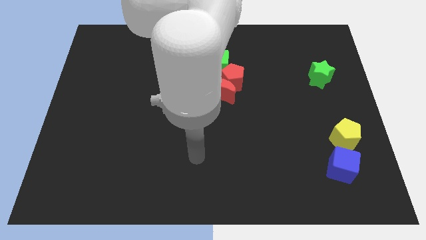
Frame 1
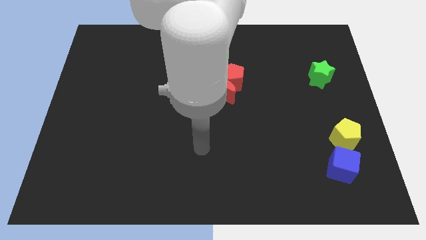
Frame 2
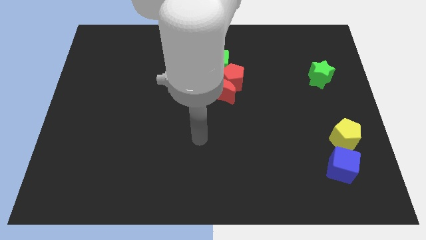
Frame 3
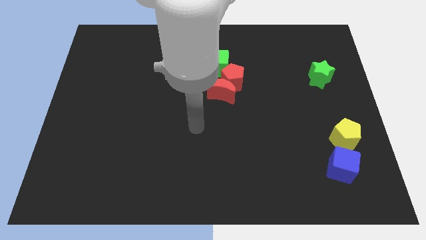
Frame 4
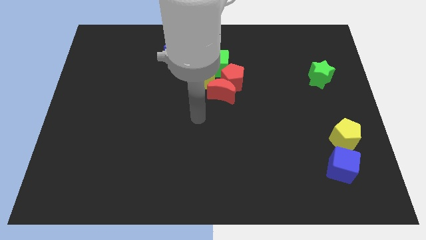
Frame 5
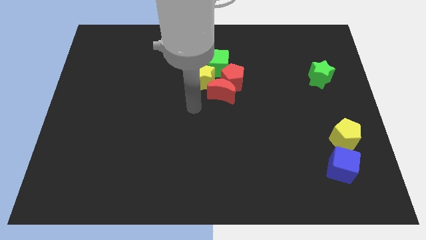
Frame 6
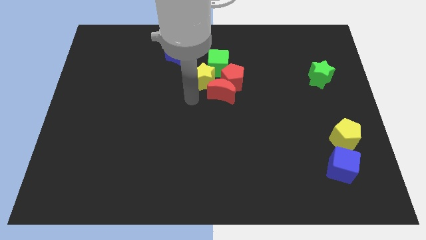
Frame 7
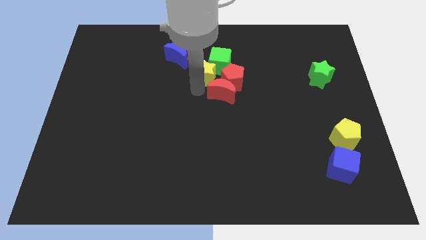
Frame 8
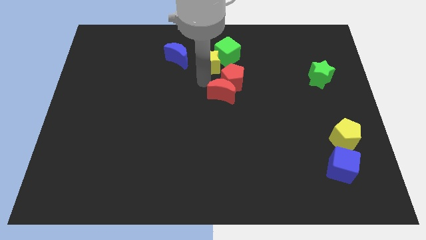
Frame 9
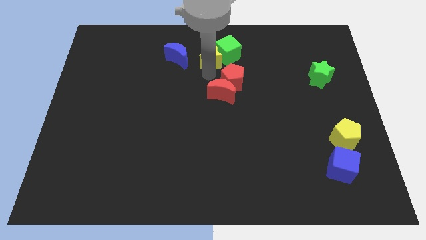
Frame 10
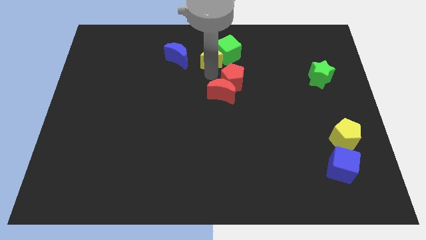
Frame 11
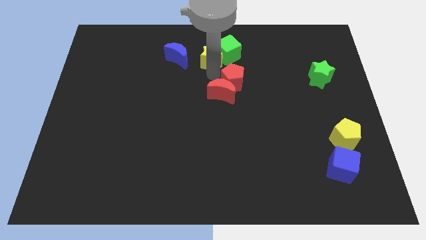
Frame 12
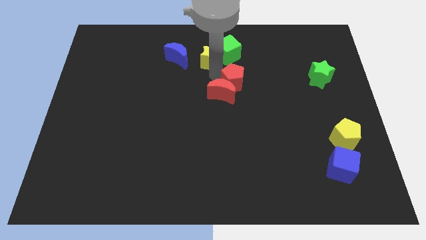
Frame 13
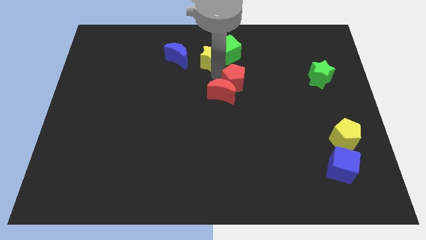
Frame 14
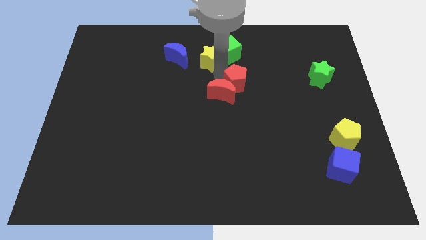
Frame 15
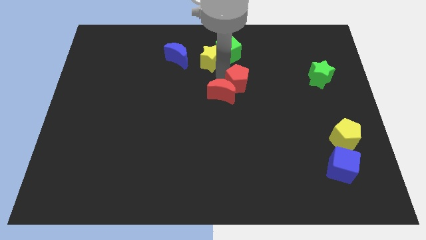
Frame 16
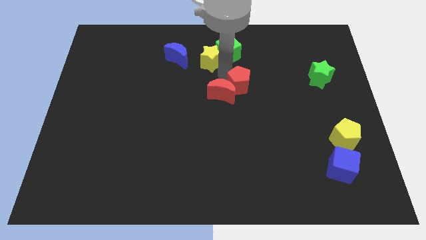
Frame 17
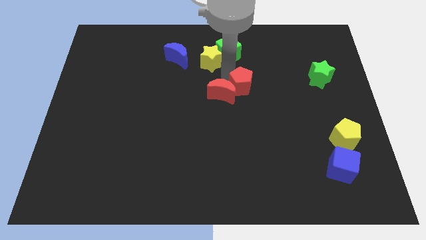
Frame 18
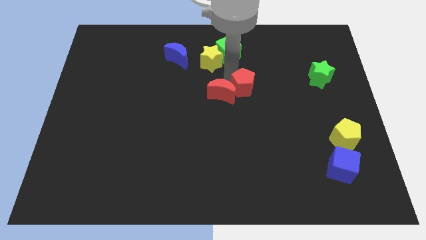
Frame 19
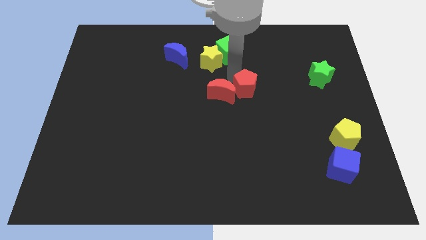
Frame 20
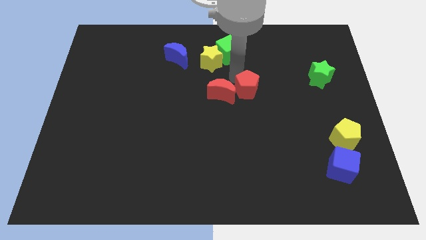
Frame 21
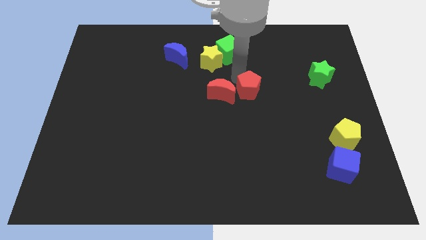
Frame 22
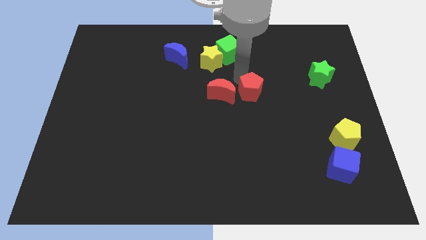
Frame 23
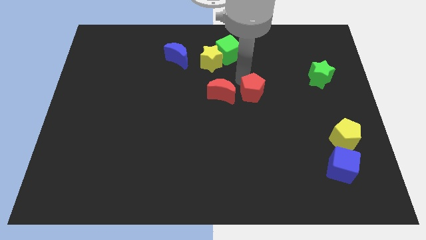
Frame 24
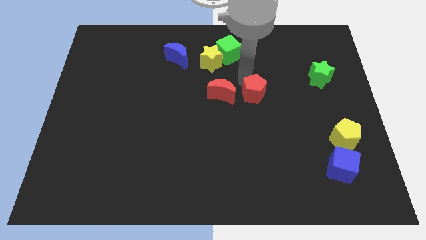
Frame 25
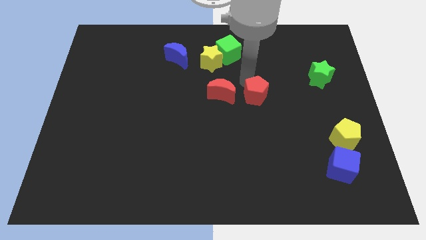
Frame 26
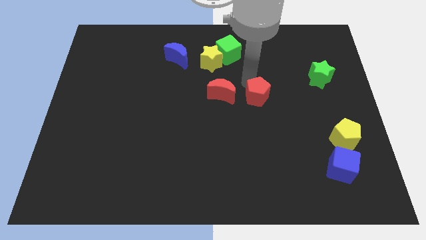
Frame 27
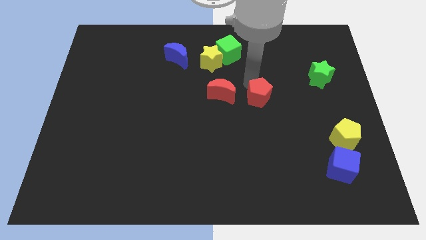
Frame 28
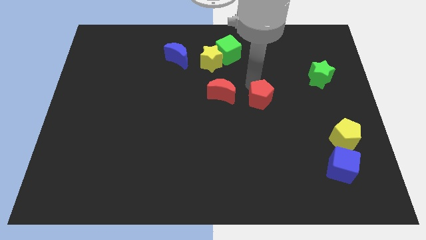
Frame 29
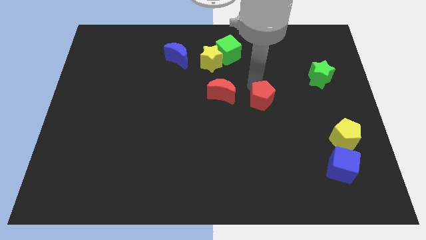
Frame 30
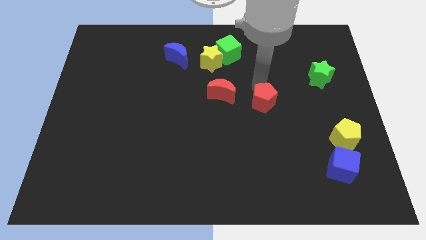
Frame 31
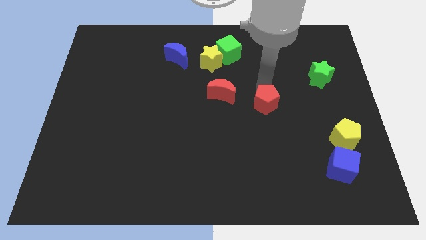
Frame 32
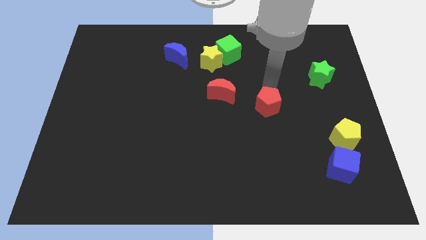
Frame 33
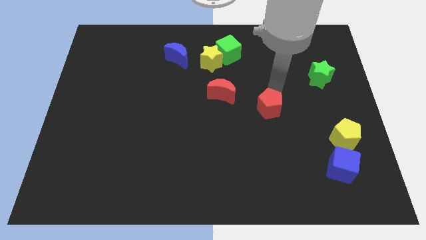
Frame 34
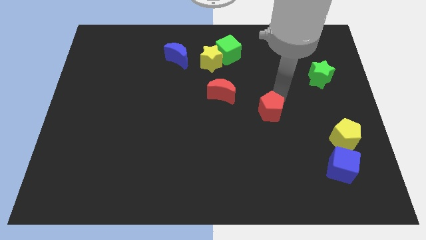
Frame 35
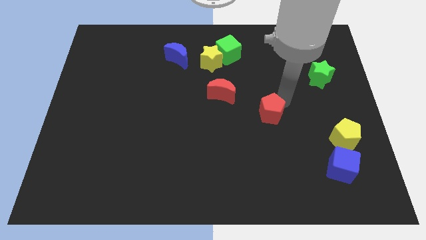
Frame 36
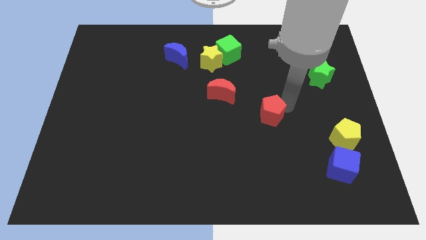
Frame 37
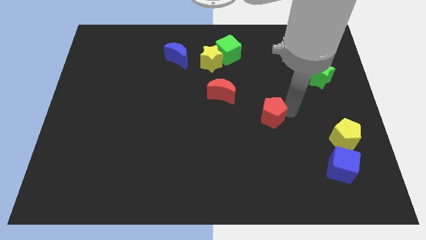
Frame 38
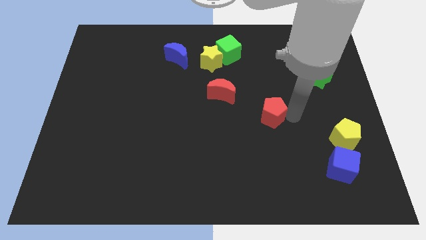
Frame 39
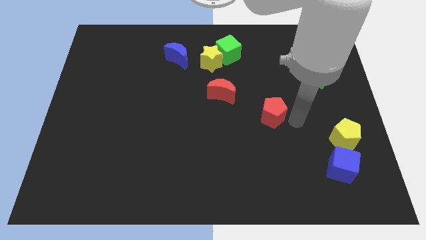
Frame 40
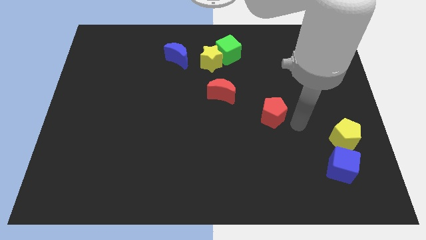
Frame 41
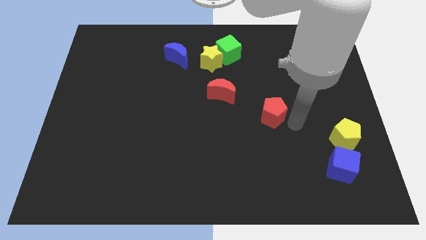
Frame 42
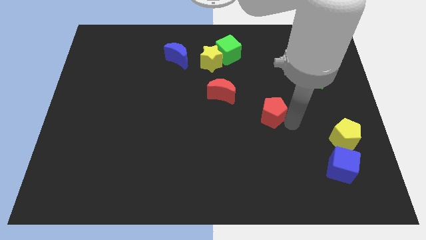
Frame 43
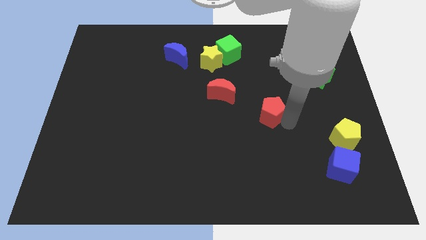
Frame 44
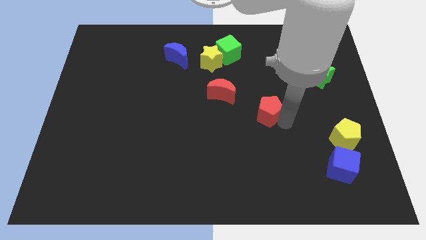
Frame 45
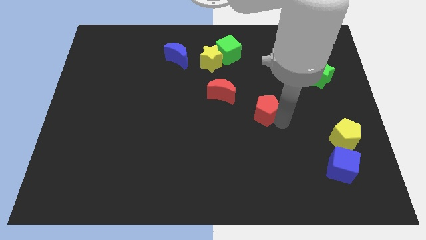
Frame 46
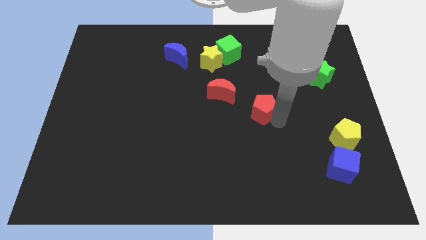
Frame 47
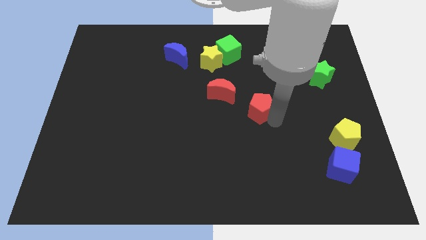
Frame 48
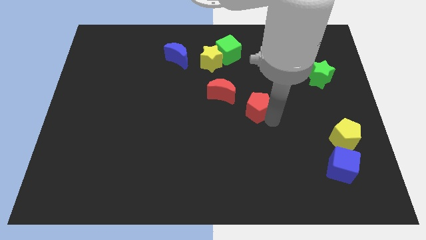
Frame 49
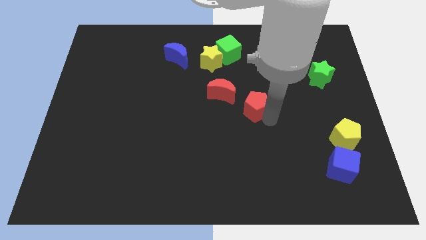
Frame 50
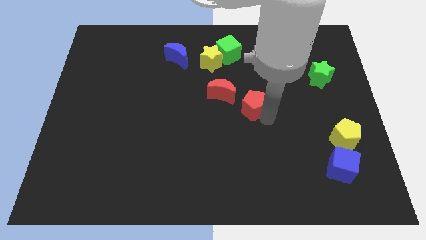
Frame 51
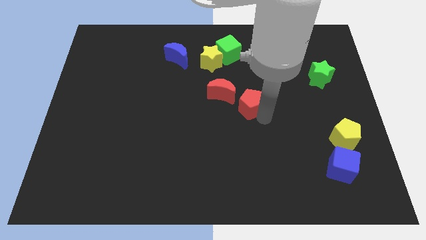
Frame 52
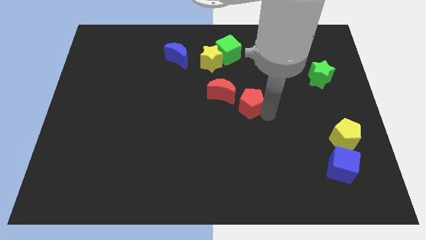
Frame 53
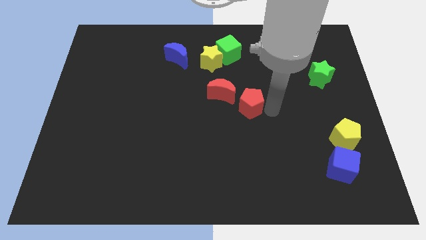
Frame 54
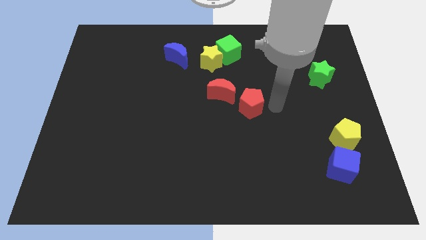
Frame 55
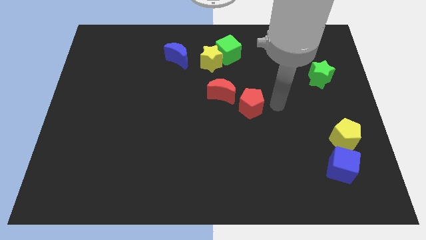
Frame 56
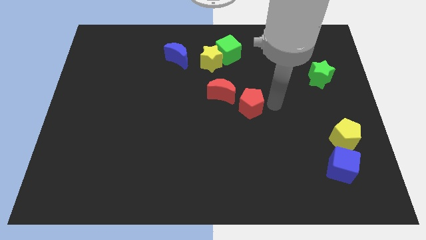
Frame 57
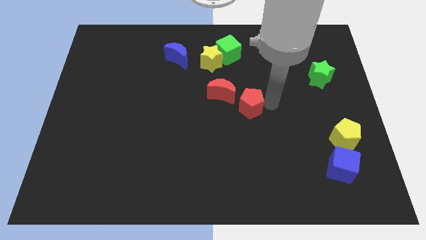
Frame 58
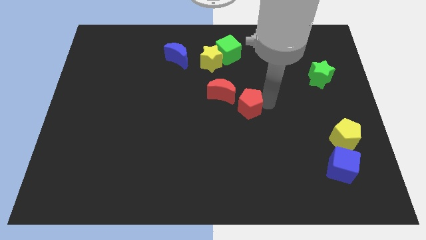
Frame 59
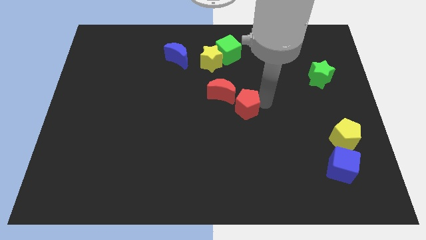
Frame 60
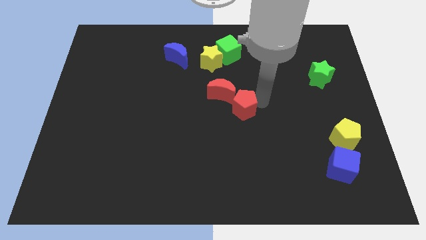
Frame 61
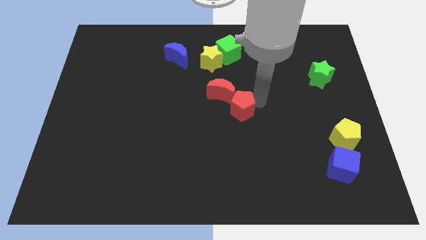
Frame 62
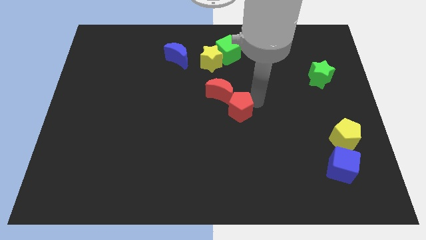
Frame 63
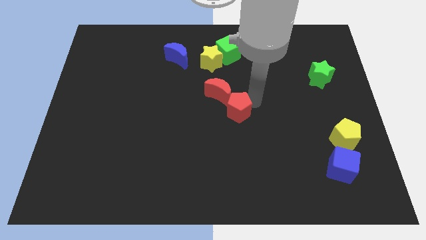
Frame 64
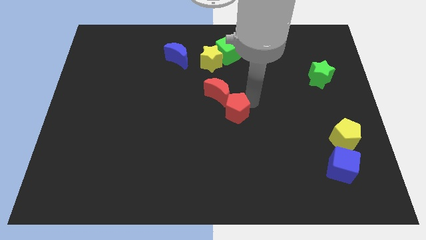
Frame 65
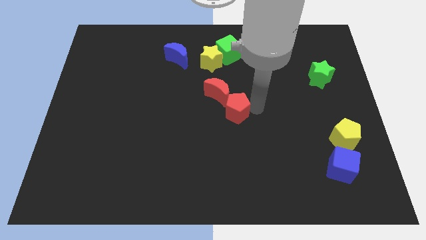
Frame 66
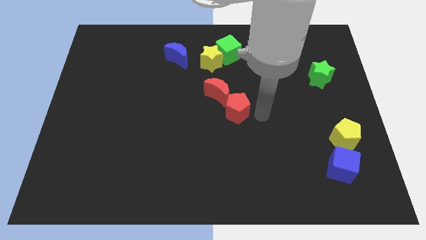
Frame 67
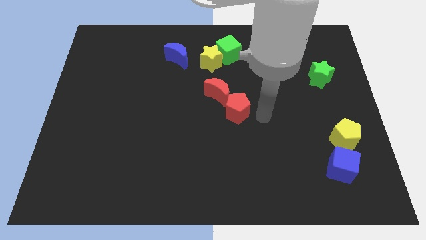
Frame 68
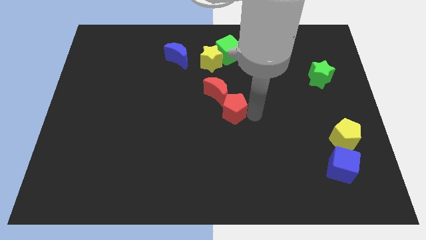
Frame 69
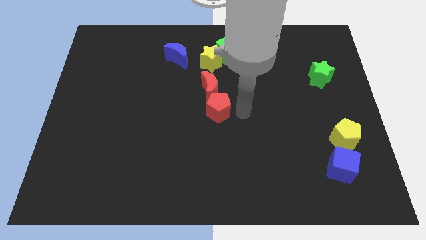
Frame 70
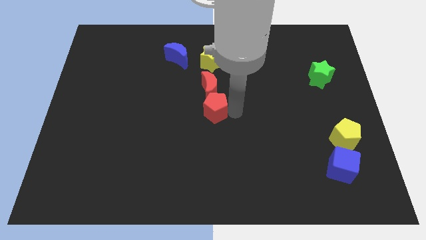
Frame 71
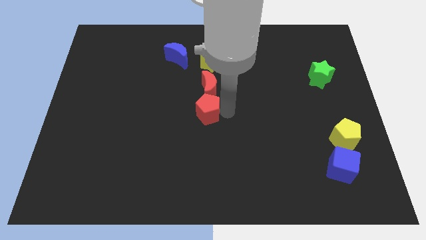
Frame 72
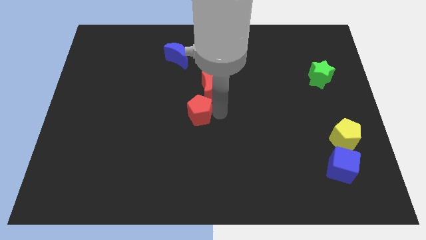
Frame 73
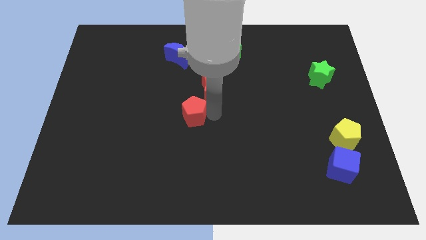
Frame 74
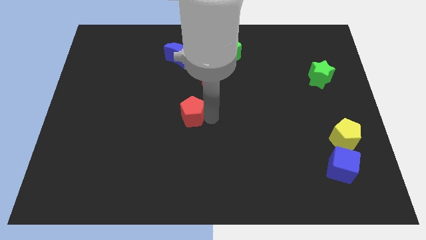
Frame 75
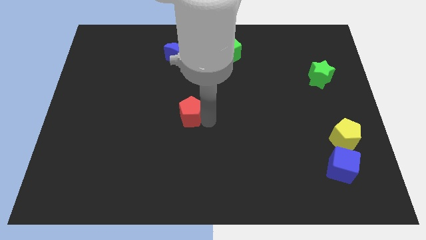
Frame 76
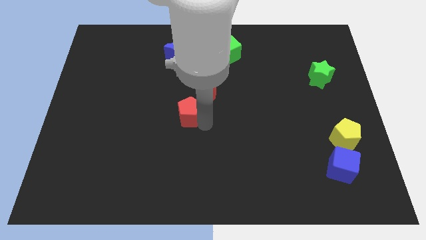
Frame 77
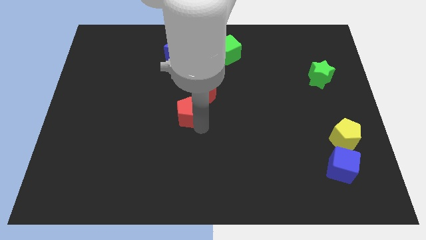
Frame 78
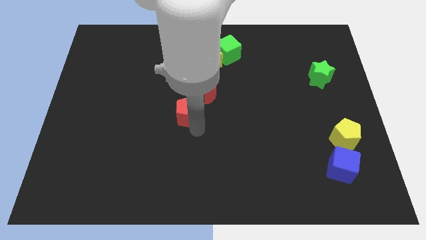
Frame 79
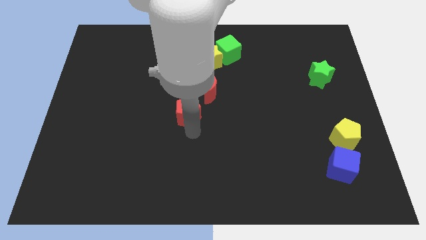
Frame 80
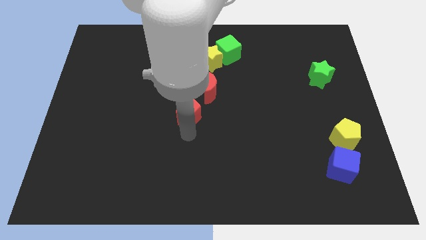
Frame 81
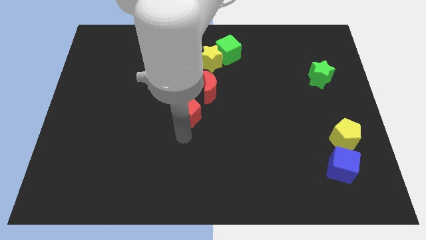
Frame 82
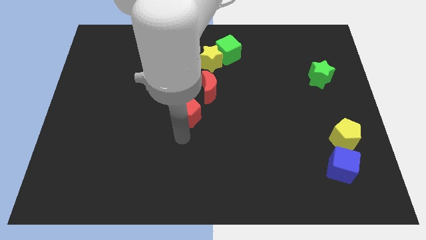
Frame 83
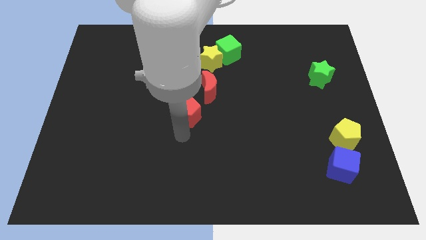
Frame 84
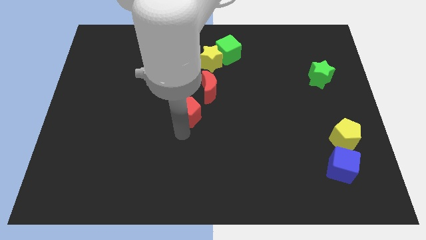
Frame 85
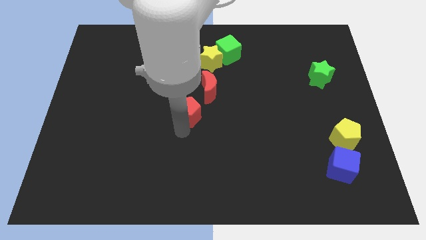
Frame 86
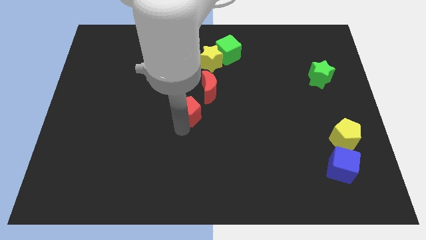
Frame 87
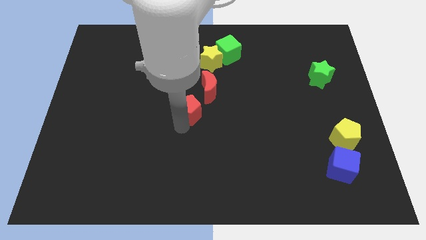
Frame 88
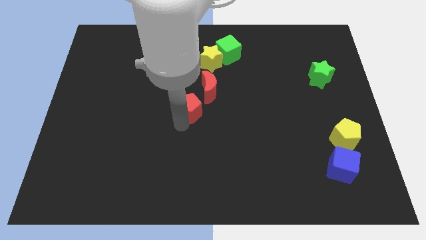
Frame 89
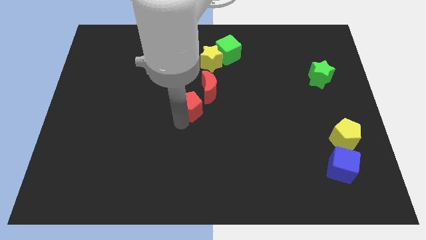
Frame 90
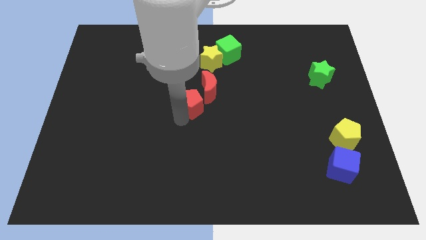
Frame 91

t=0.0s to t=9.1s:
push the red pentagon to the left side of the red moon
